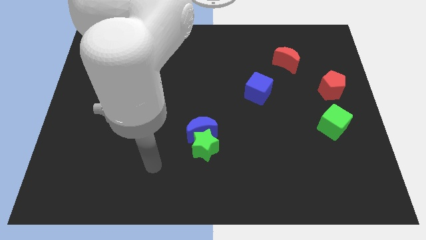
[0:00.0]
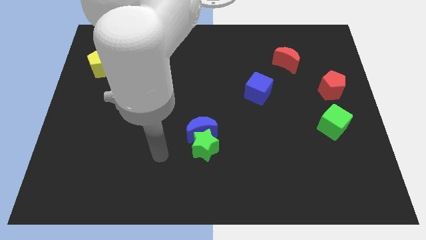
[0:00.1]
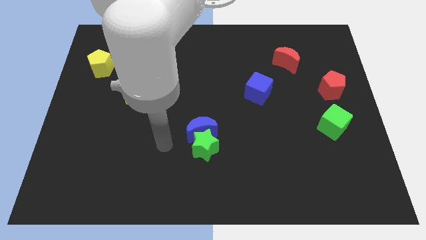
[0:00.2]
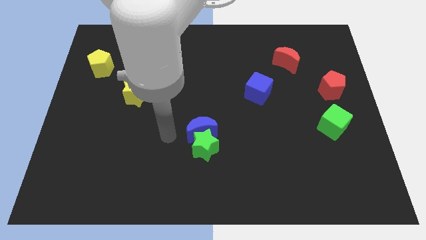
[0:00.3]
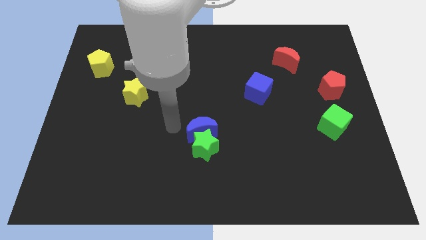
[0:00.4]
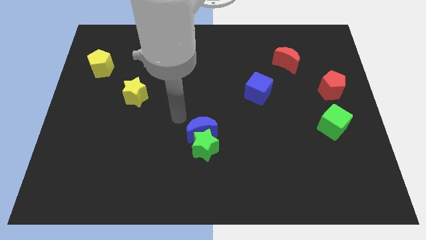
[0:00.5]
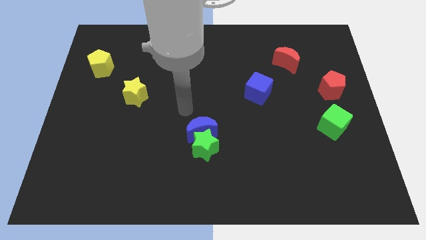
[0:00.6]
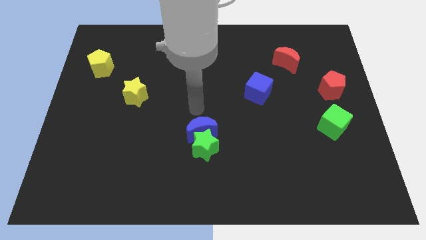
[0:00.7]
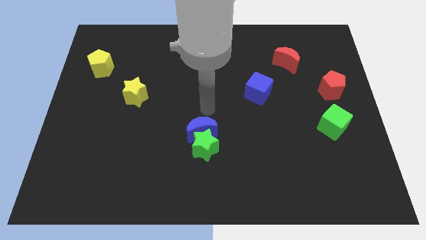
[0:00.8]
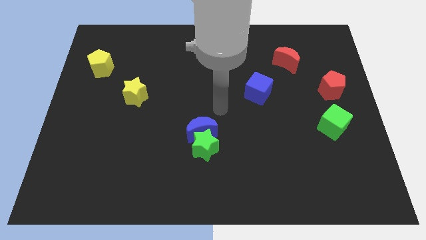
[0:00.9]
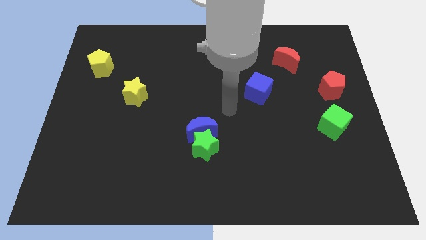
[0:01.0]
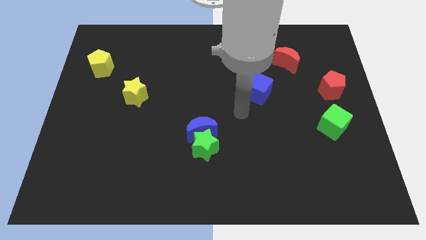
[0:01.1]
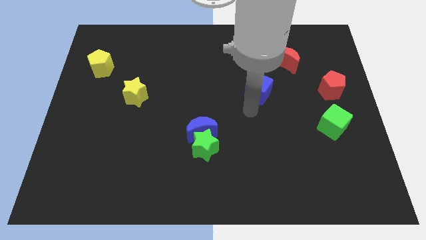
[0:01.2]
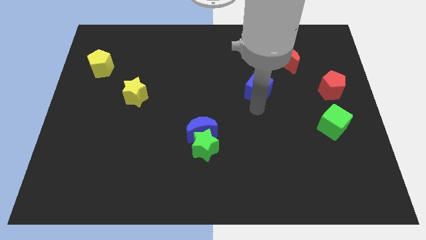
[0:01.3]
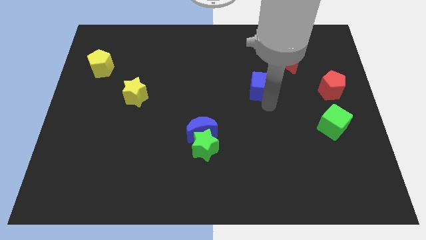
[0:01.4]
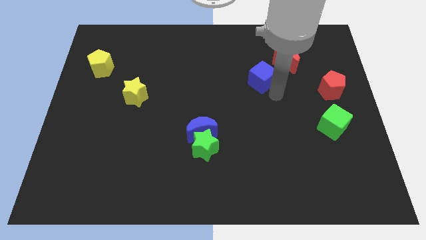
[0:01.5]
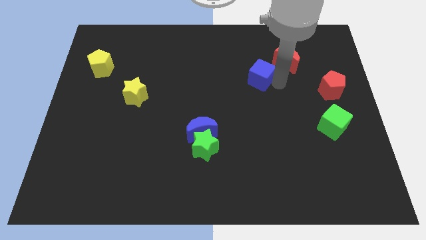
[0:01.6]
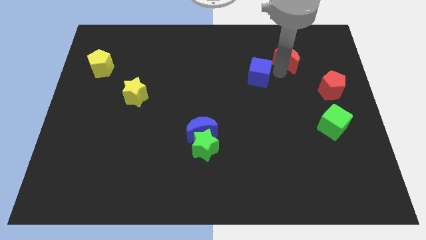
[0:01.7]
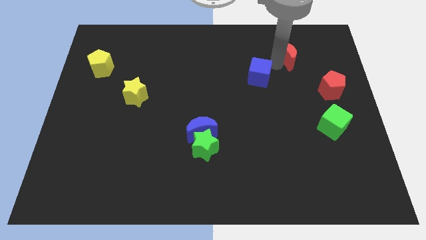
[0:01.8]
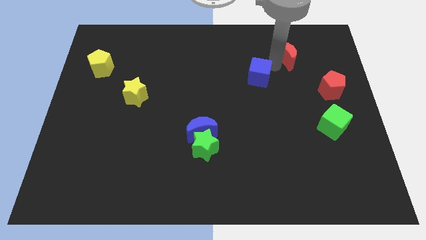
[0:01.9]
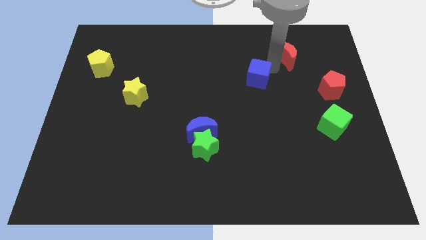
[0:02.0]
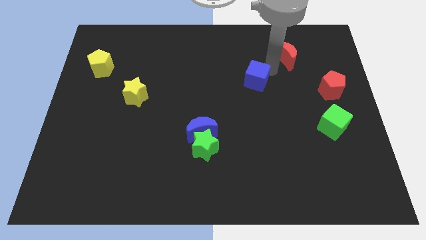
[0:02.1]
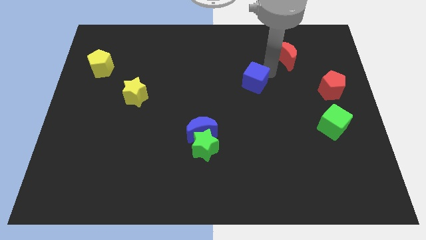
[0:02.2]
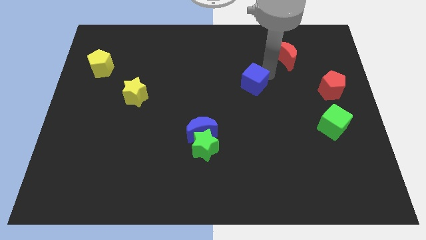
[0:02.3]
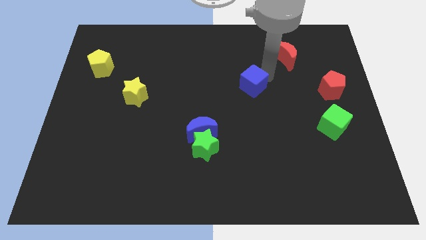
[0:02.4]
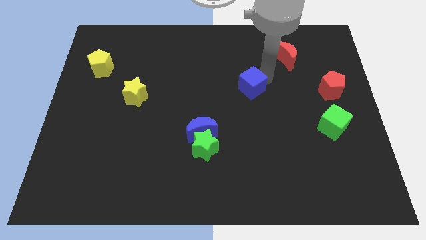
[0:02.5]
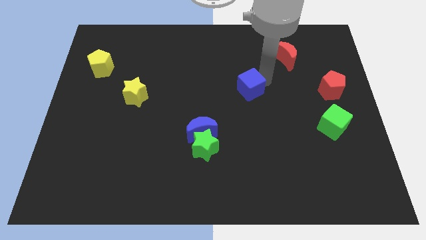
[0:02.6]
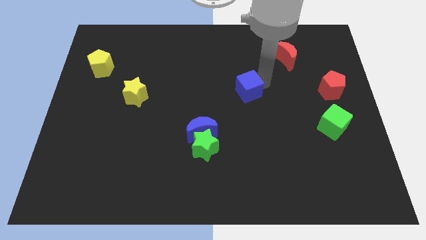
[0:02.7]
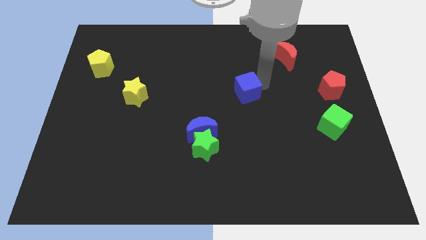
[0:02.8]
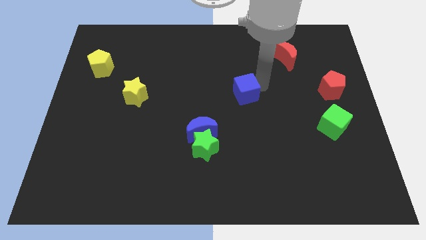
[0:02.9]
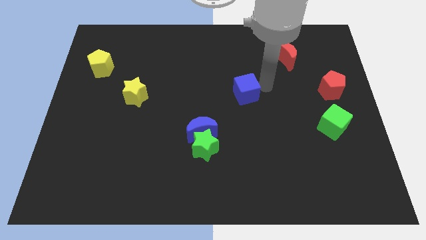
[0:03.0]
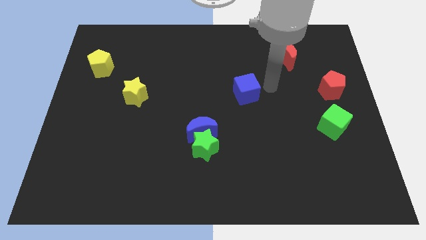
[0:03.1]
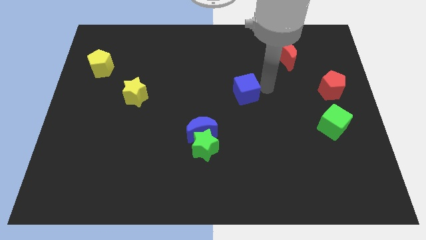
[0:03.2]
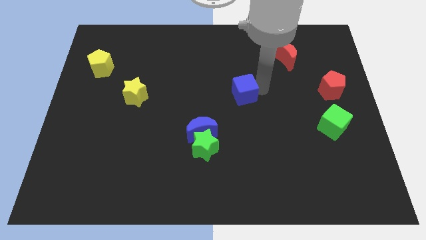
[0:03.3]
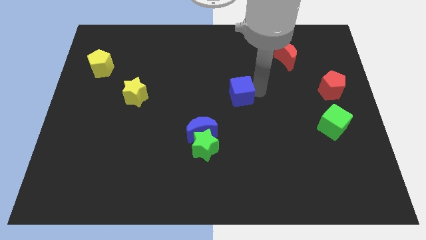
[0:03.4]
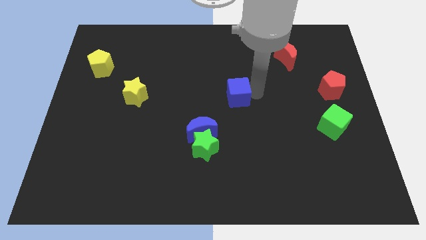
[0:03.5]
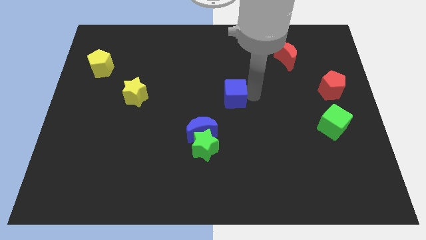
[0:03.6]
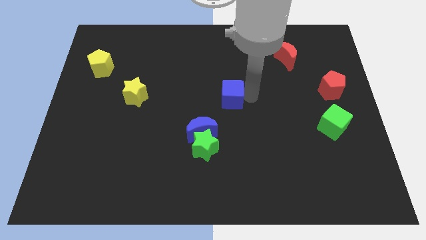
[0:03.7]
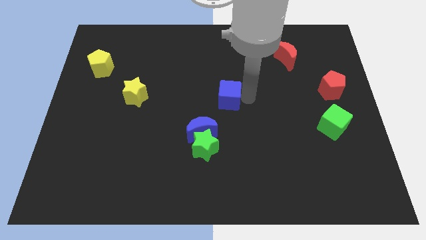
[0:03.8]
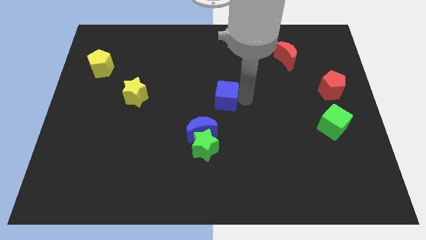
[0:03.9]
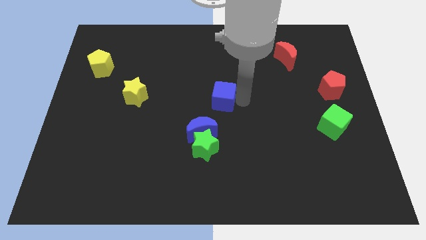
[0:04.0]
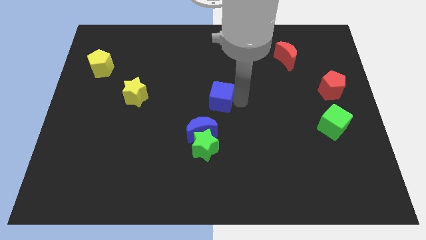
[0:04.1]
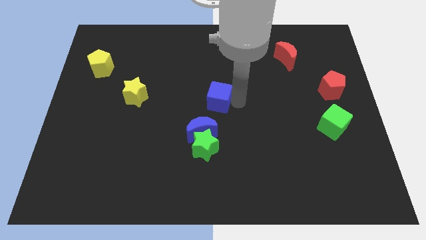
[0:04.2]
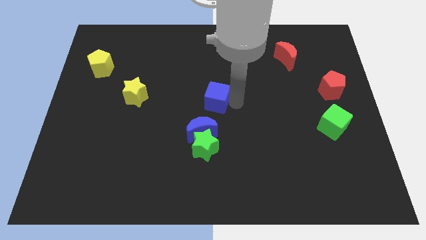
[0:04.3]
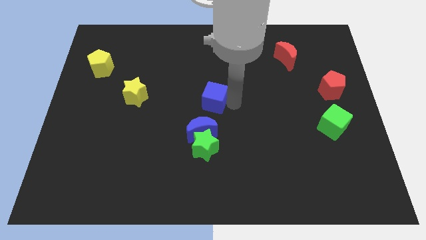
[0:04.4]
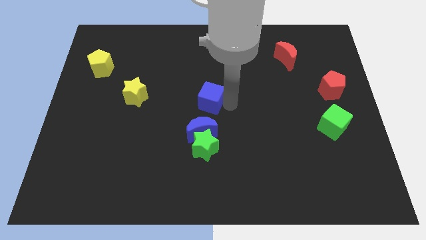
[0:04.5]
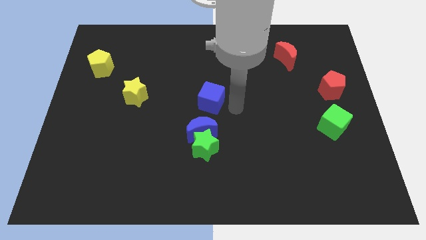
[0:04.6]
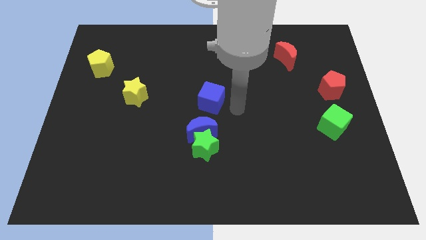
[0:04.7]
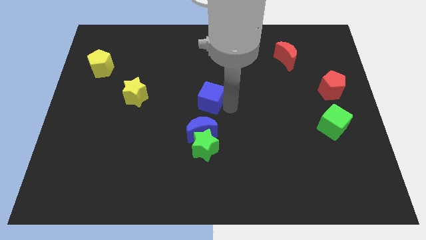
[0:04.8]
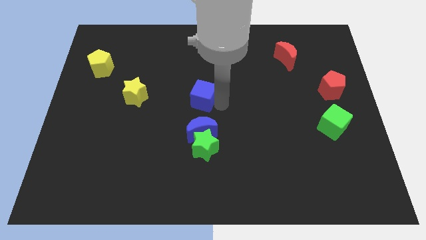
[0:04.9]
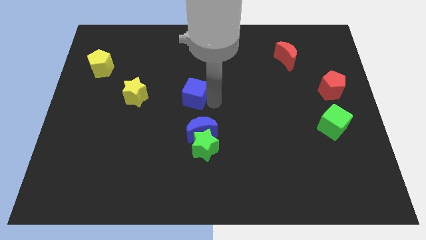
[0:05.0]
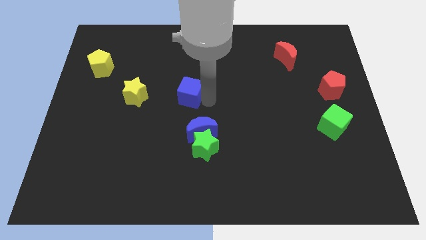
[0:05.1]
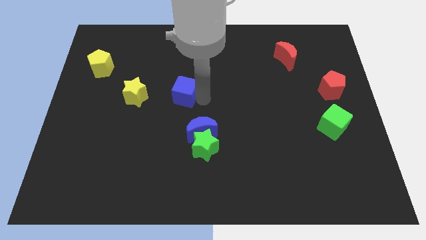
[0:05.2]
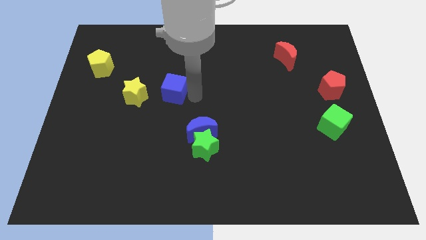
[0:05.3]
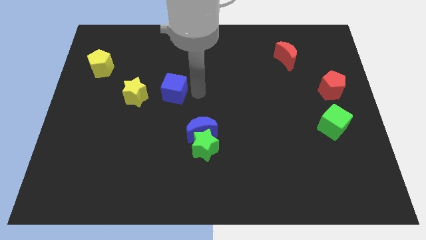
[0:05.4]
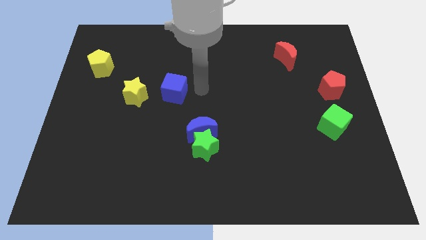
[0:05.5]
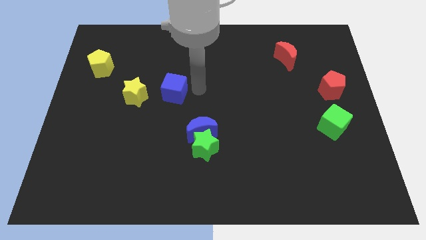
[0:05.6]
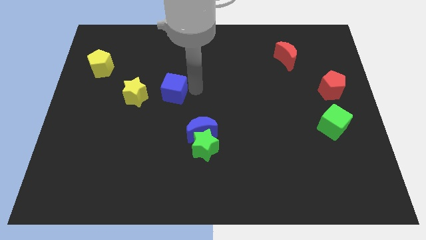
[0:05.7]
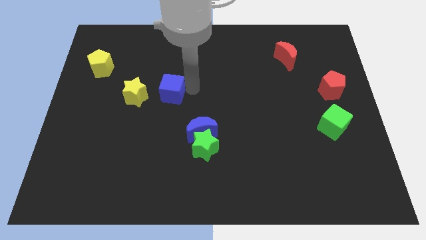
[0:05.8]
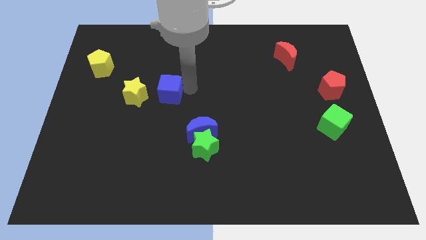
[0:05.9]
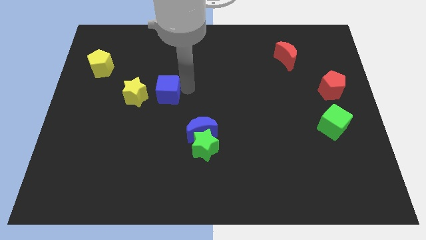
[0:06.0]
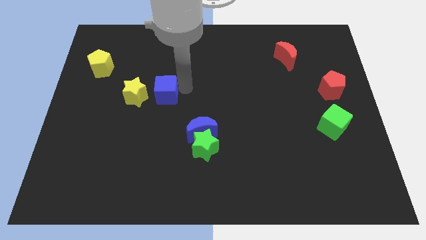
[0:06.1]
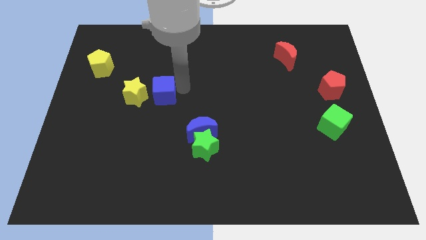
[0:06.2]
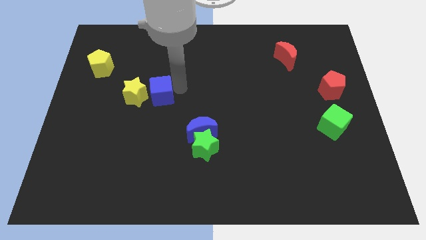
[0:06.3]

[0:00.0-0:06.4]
slide the blue cube next to the yellow star
